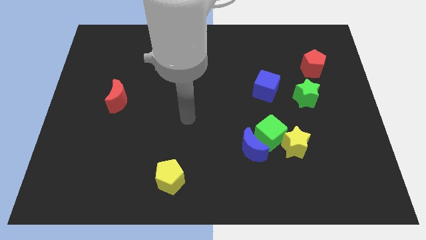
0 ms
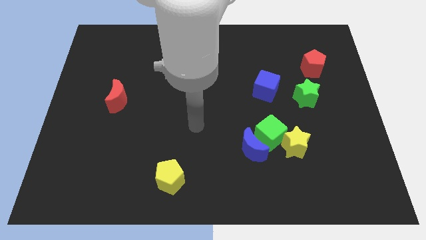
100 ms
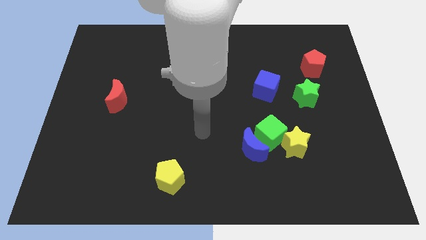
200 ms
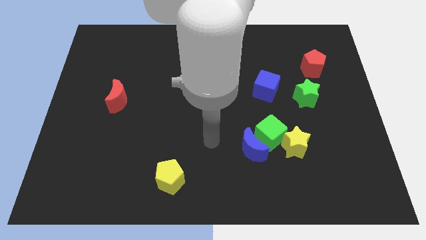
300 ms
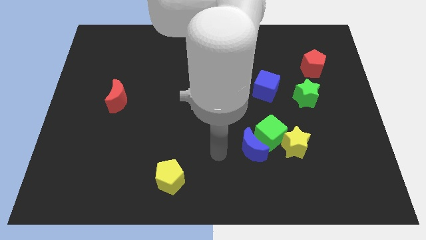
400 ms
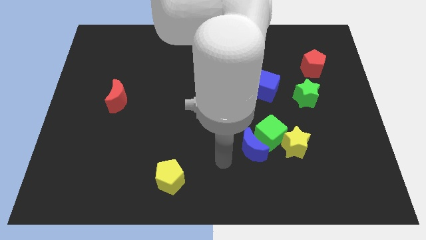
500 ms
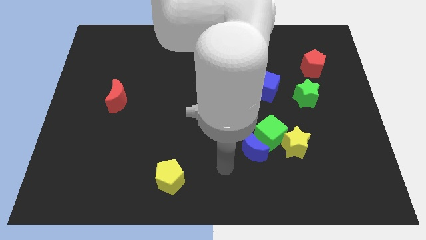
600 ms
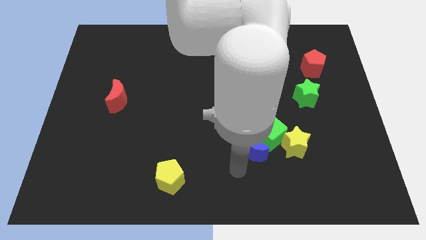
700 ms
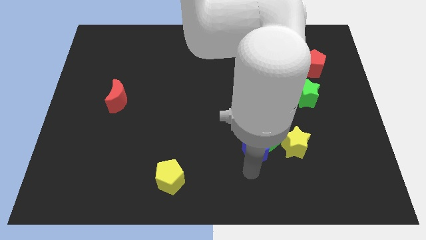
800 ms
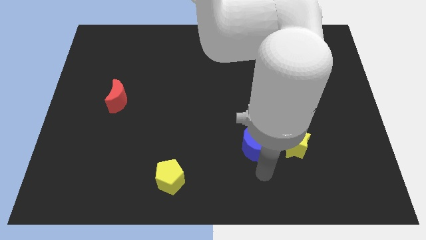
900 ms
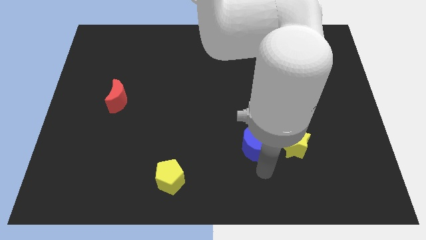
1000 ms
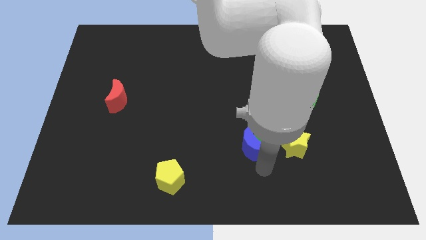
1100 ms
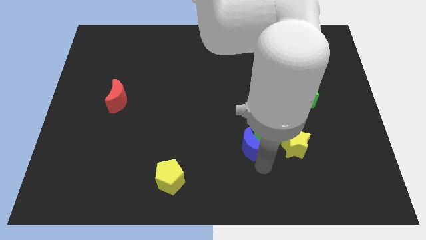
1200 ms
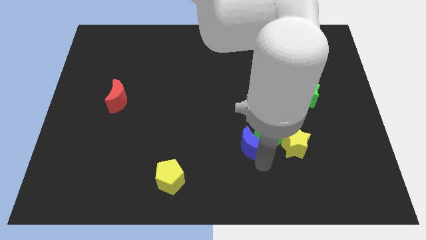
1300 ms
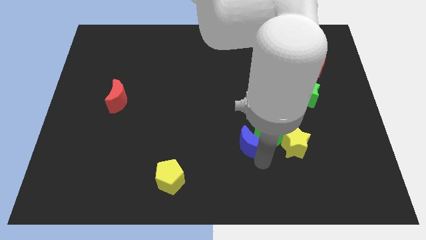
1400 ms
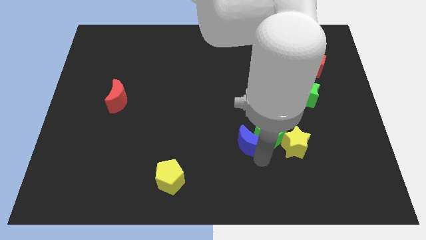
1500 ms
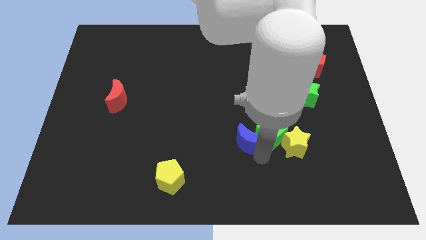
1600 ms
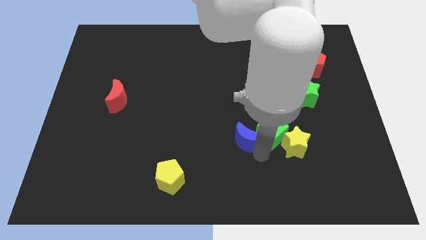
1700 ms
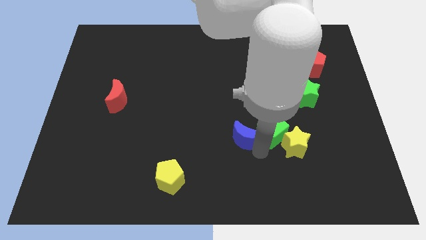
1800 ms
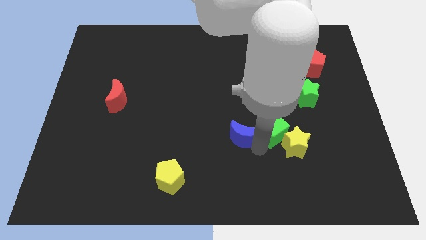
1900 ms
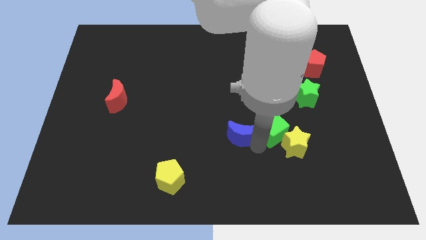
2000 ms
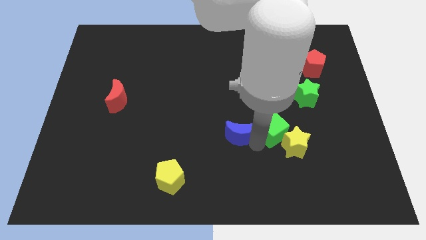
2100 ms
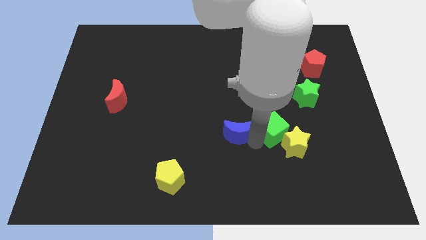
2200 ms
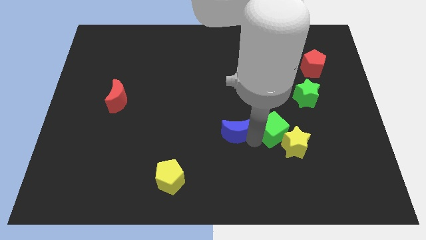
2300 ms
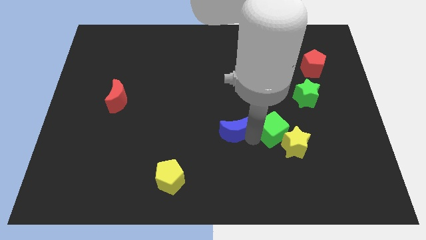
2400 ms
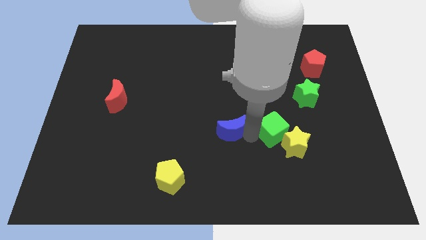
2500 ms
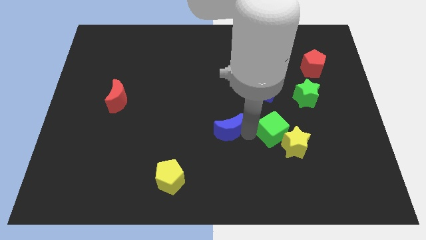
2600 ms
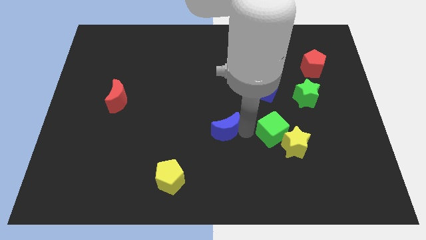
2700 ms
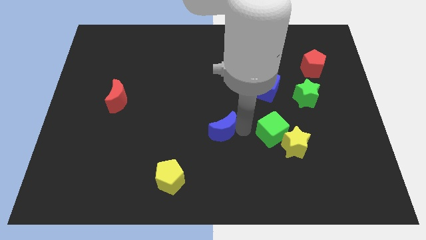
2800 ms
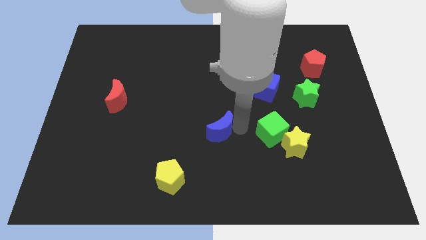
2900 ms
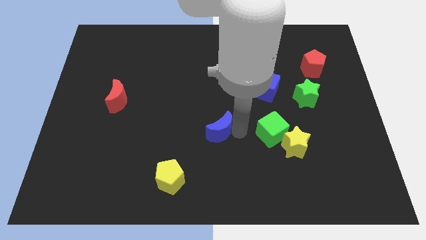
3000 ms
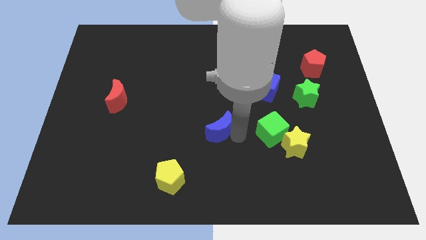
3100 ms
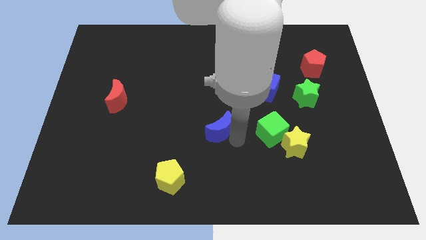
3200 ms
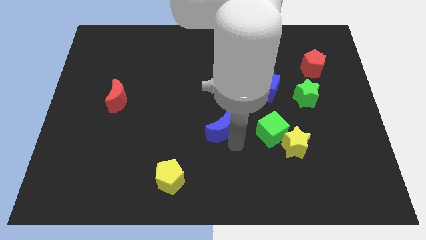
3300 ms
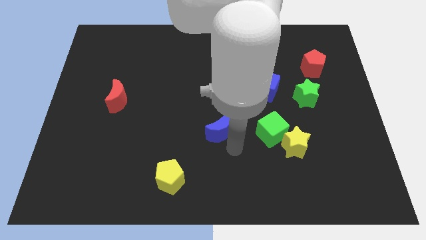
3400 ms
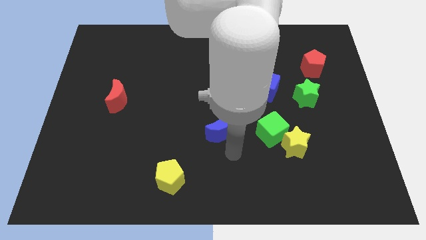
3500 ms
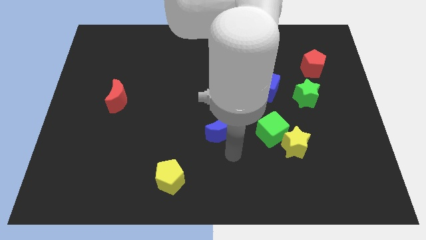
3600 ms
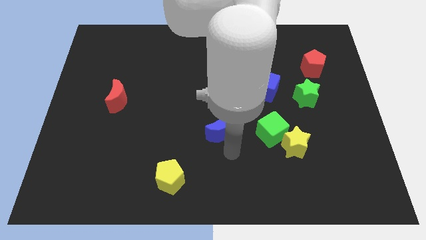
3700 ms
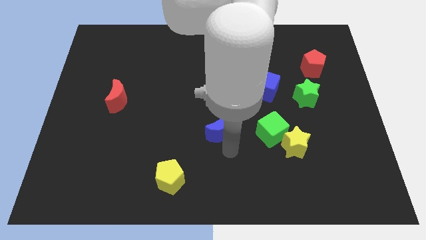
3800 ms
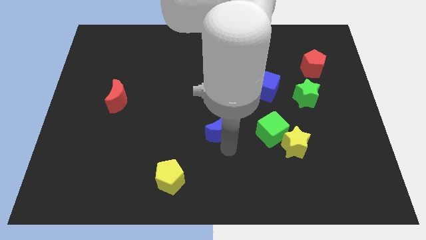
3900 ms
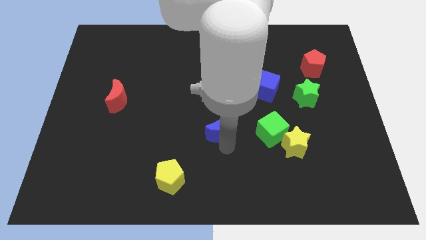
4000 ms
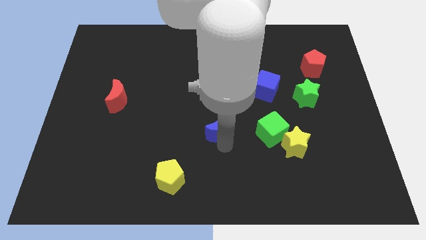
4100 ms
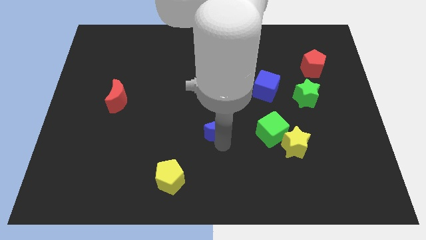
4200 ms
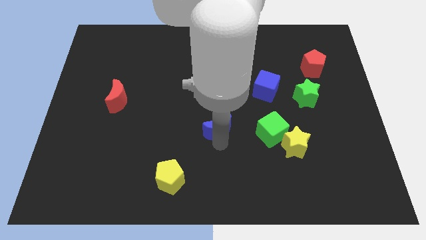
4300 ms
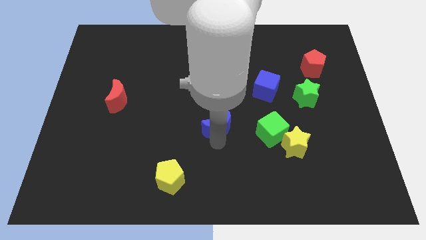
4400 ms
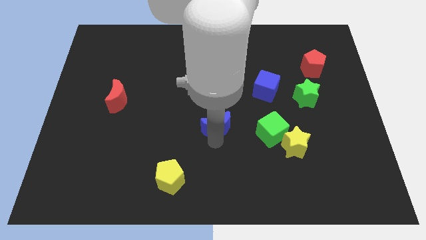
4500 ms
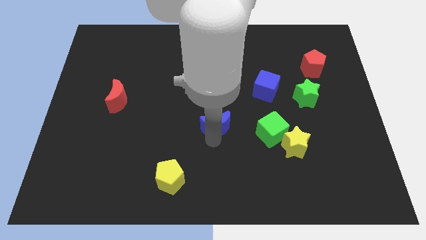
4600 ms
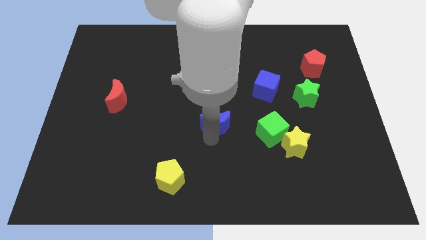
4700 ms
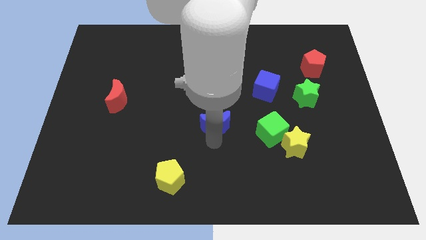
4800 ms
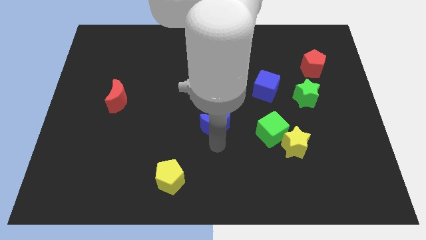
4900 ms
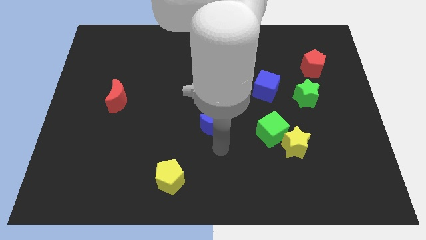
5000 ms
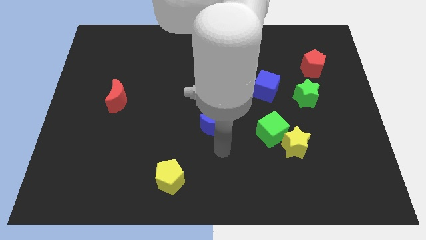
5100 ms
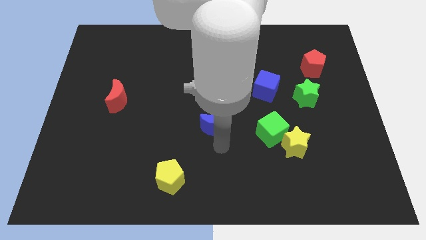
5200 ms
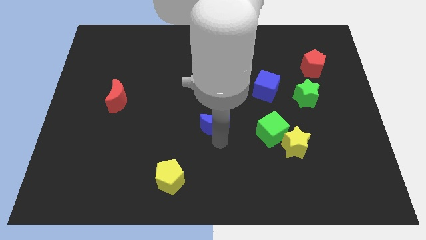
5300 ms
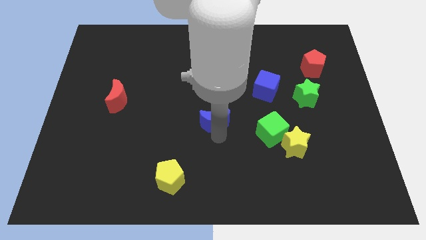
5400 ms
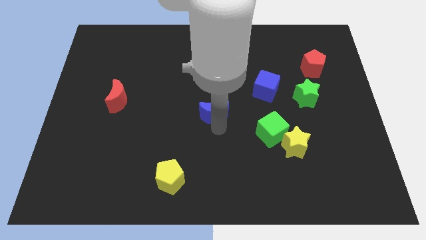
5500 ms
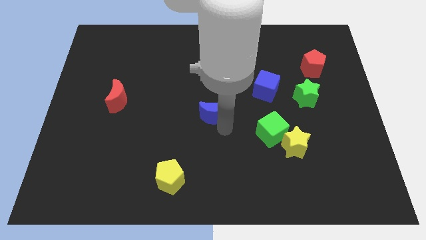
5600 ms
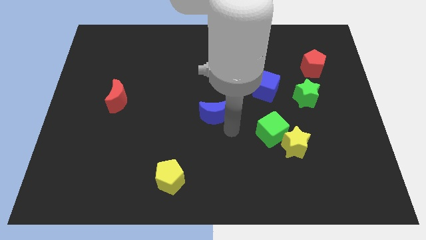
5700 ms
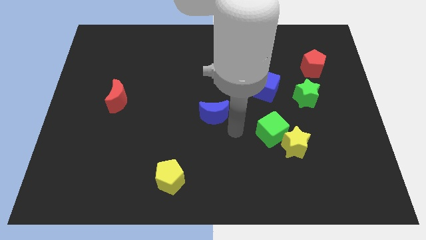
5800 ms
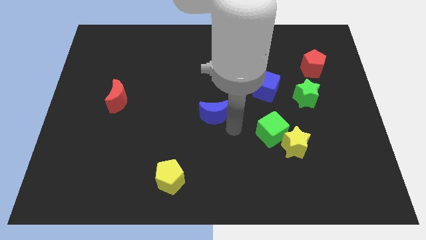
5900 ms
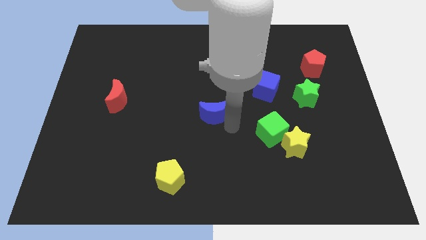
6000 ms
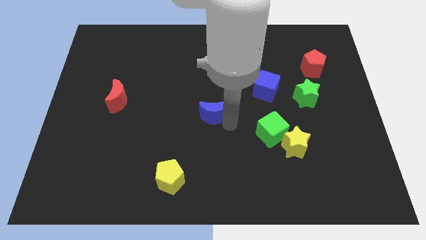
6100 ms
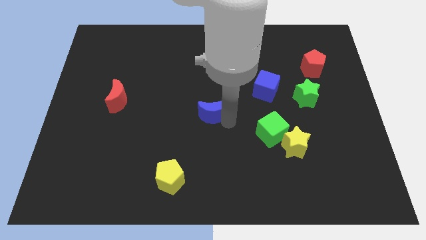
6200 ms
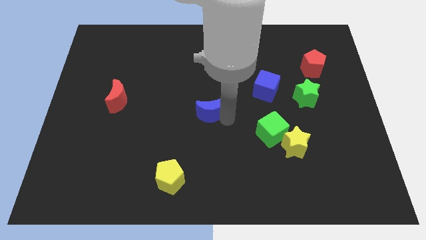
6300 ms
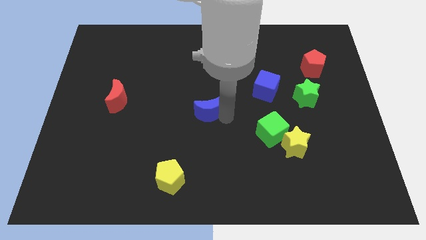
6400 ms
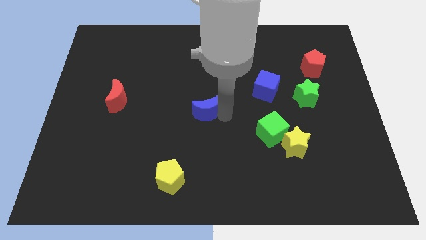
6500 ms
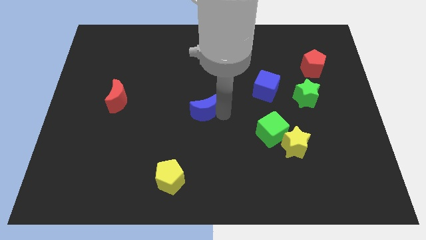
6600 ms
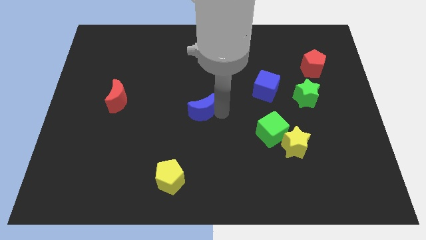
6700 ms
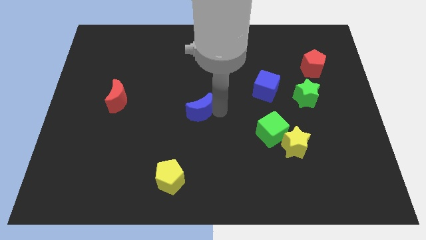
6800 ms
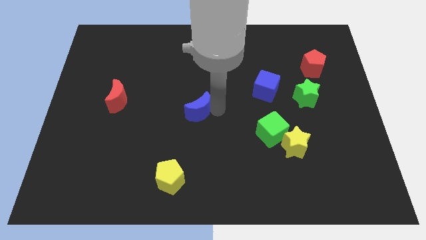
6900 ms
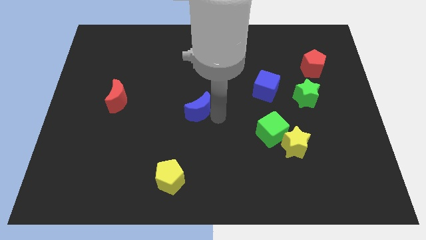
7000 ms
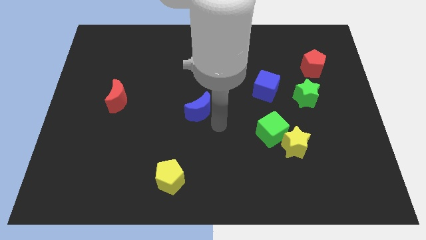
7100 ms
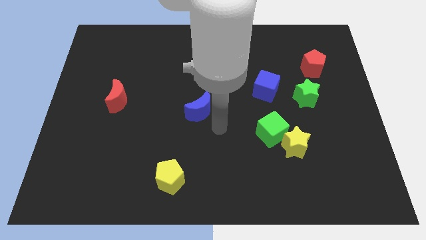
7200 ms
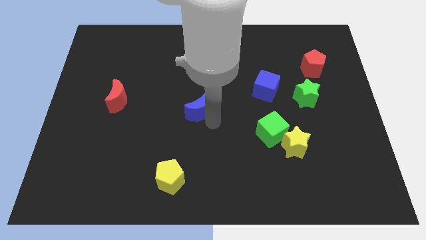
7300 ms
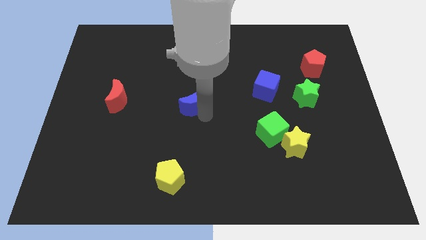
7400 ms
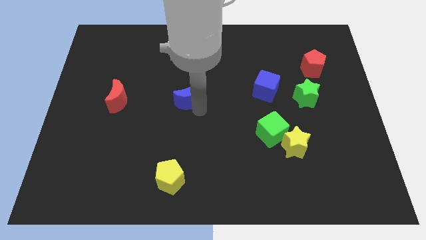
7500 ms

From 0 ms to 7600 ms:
push the blue moon up and to the left

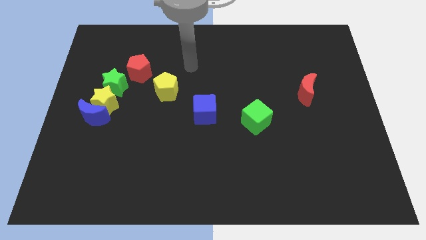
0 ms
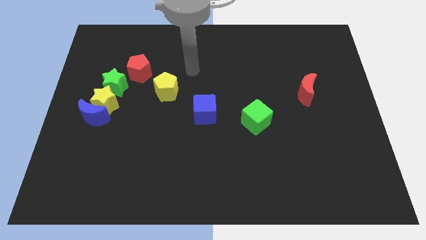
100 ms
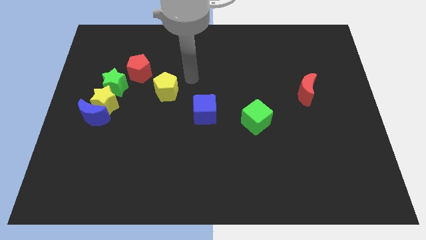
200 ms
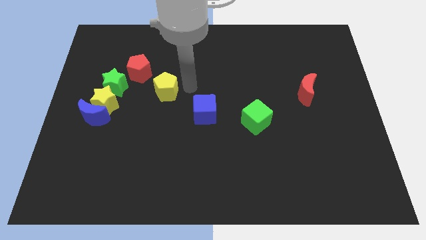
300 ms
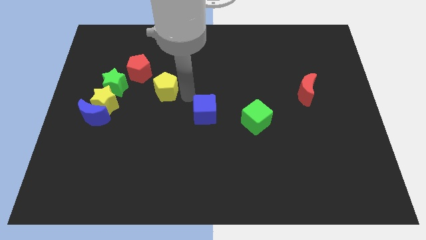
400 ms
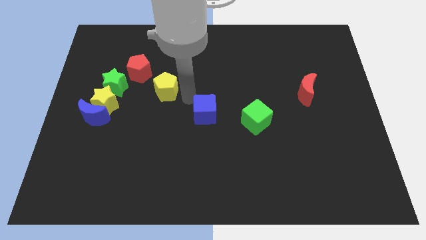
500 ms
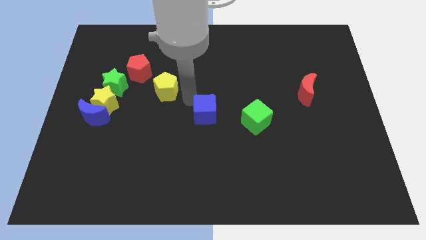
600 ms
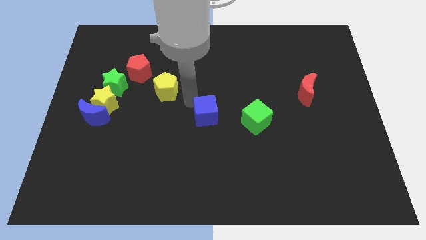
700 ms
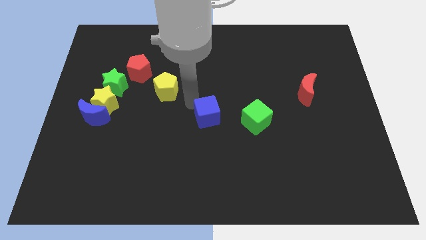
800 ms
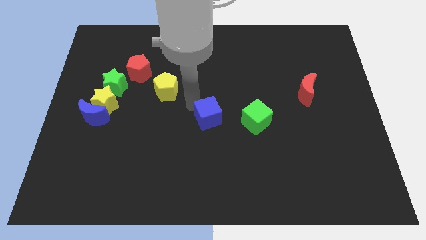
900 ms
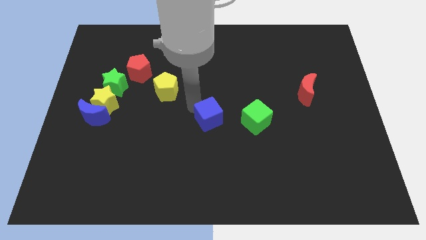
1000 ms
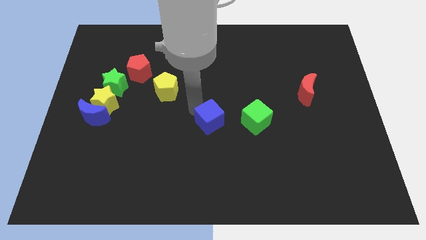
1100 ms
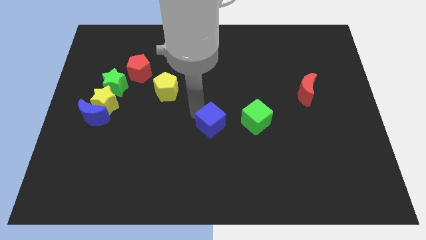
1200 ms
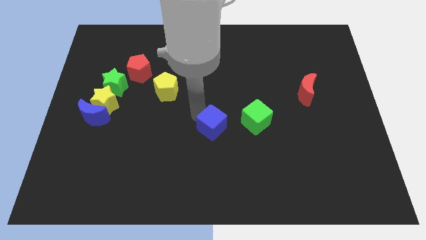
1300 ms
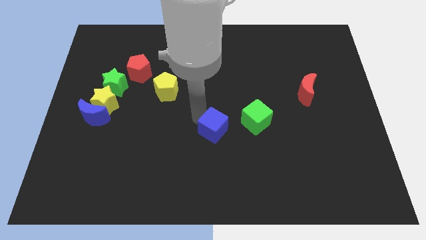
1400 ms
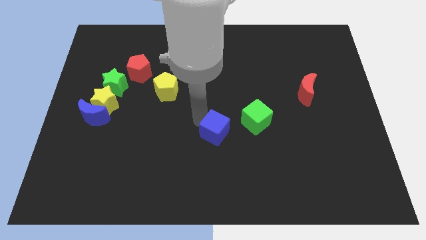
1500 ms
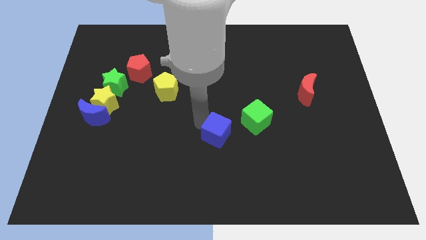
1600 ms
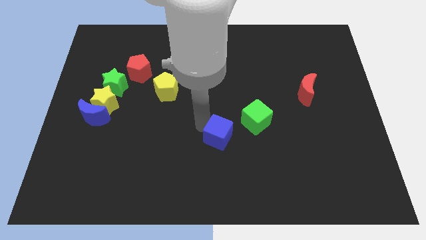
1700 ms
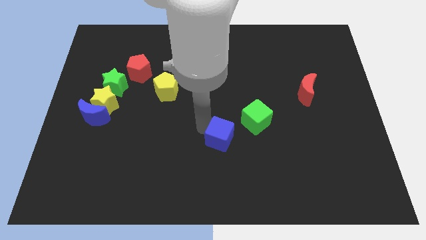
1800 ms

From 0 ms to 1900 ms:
push the blue cube downwards and then right a bit
